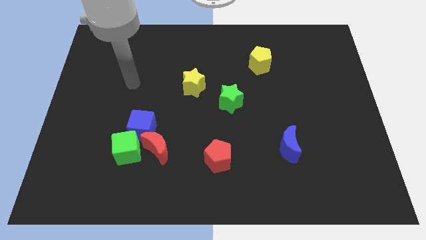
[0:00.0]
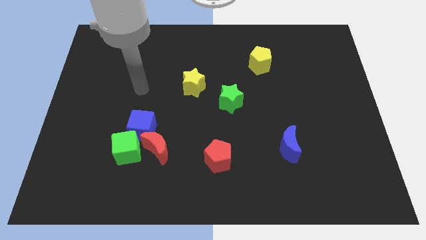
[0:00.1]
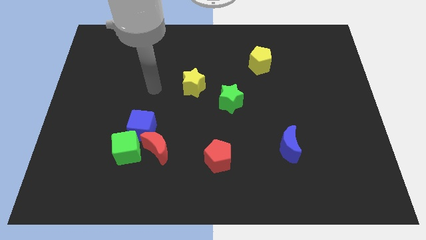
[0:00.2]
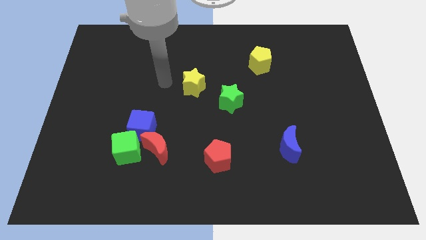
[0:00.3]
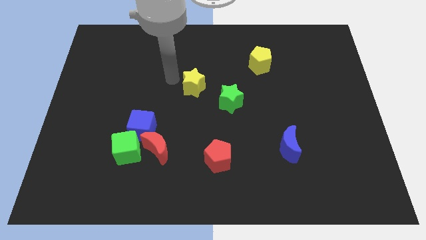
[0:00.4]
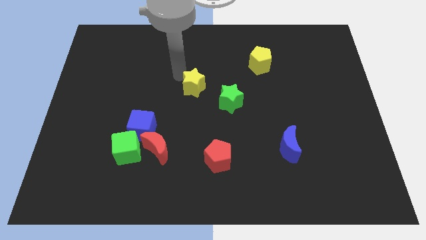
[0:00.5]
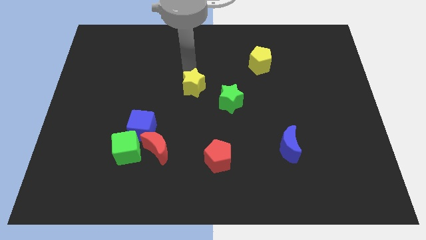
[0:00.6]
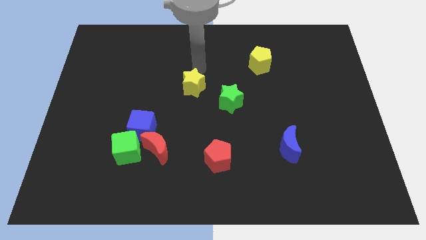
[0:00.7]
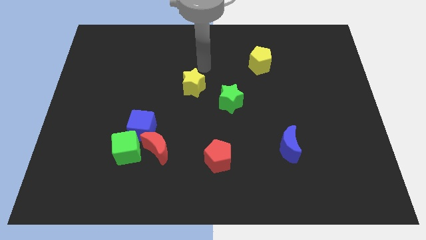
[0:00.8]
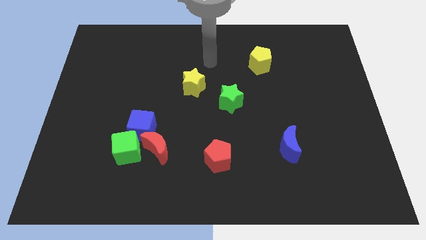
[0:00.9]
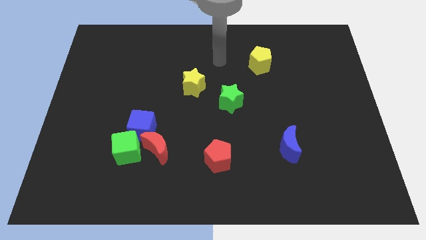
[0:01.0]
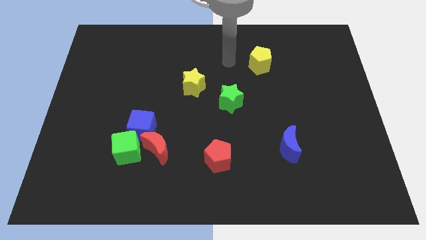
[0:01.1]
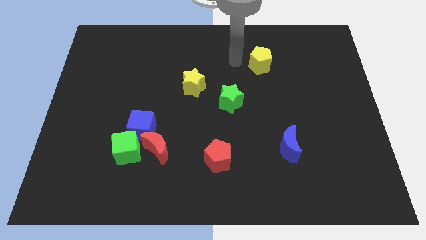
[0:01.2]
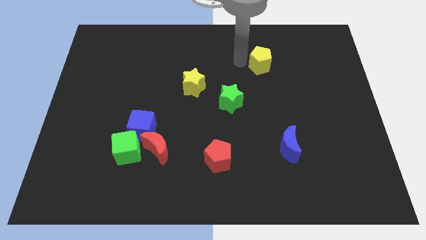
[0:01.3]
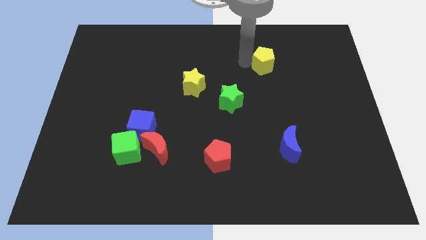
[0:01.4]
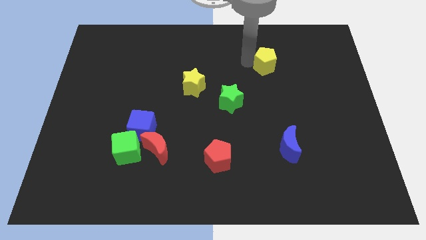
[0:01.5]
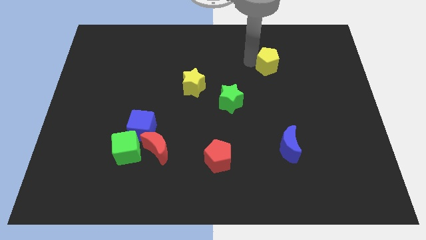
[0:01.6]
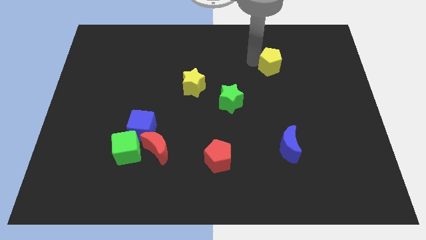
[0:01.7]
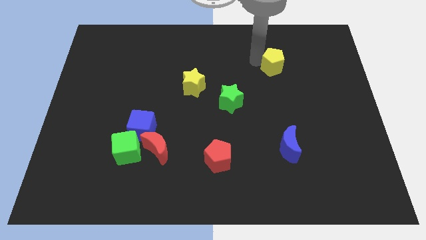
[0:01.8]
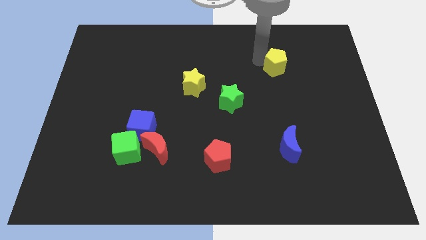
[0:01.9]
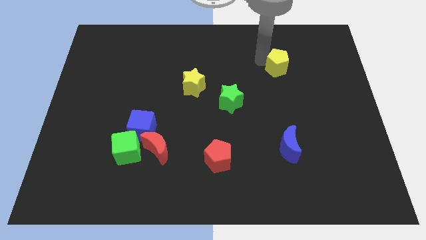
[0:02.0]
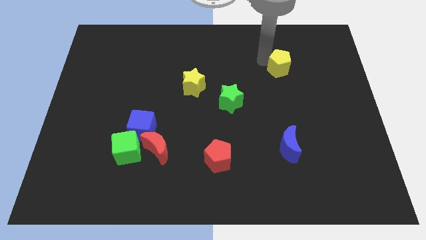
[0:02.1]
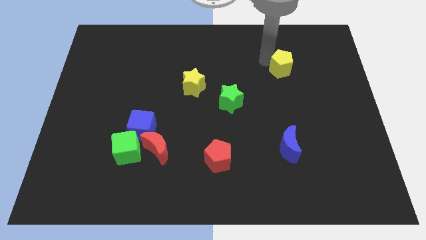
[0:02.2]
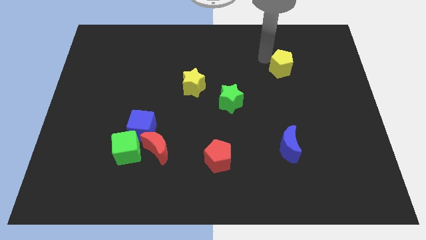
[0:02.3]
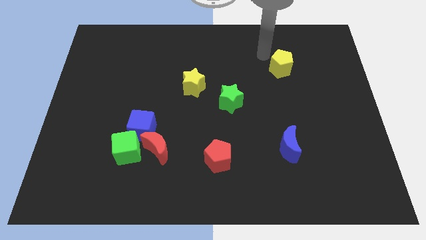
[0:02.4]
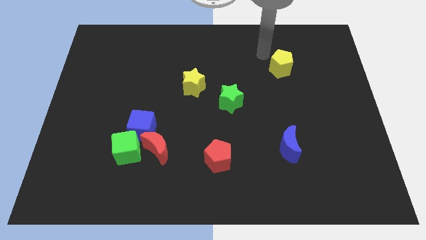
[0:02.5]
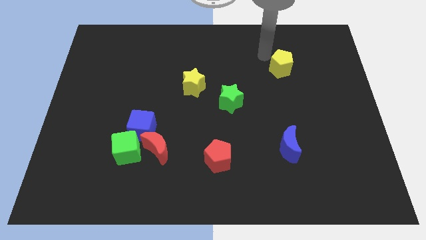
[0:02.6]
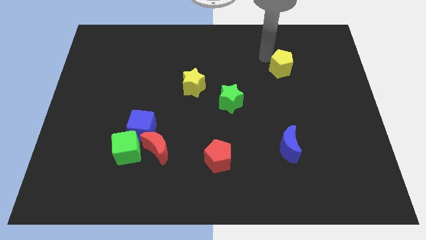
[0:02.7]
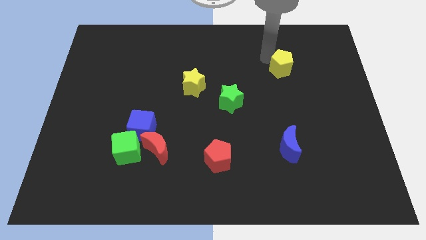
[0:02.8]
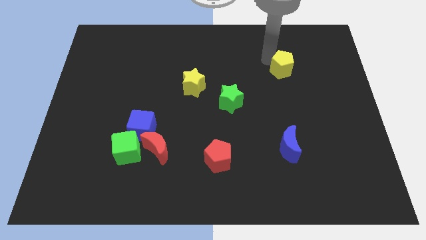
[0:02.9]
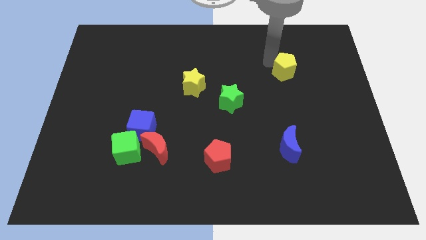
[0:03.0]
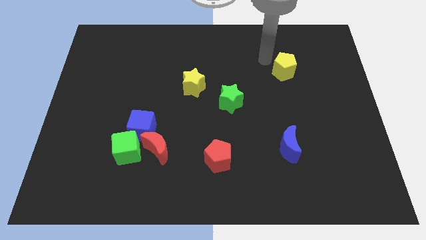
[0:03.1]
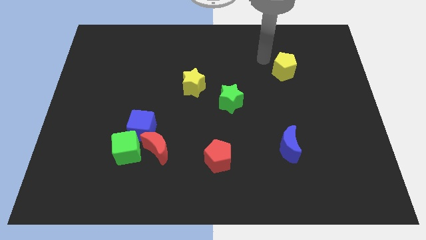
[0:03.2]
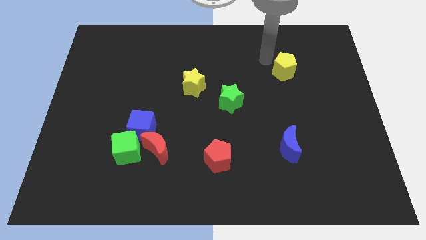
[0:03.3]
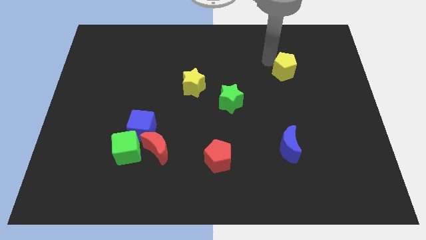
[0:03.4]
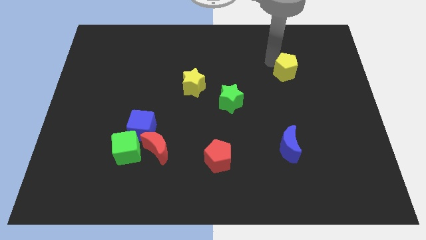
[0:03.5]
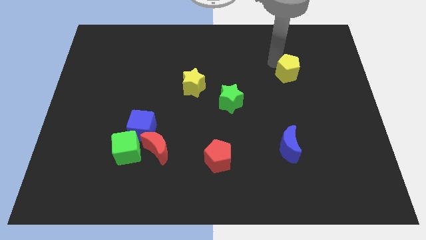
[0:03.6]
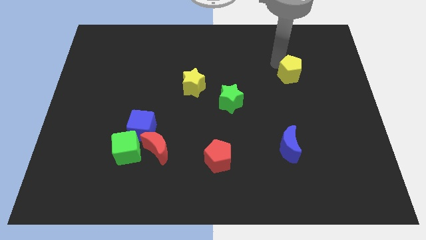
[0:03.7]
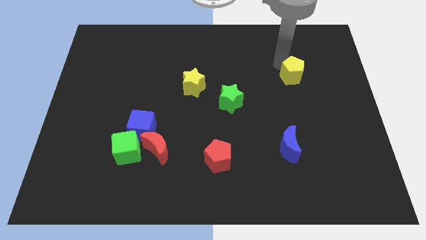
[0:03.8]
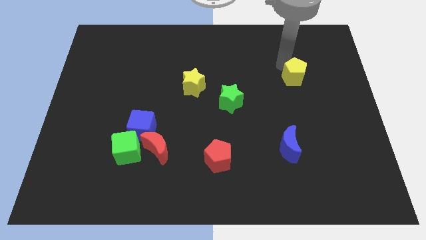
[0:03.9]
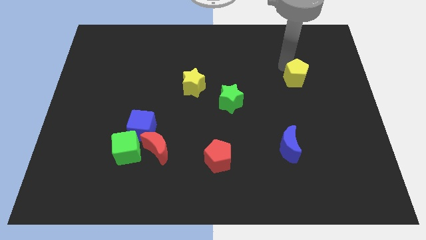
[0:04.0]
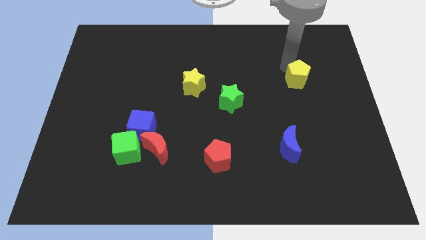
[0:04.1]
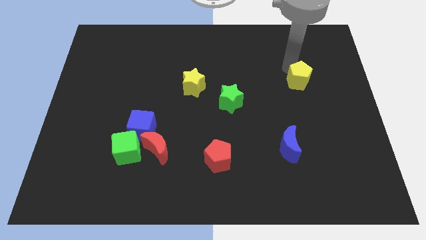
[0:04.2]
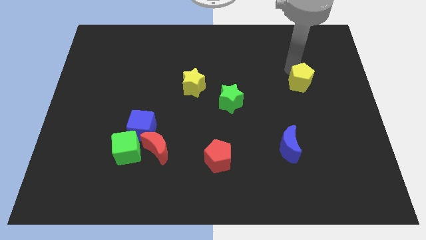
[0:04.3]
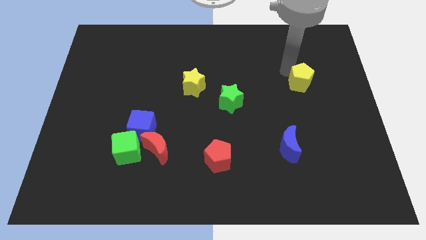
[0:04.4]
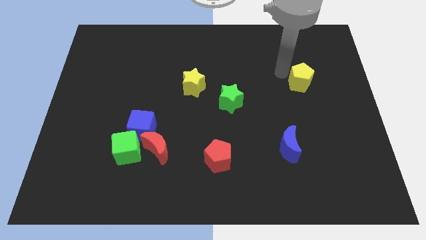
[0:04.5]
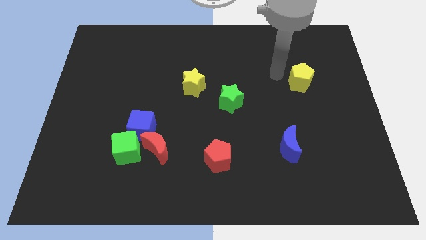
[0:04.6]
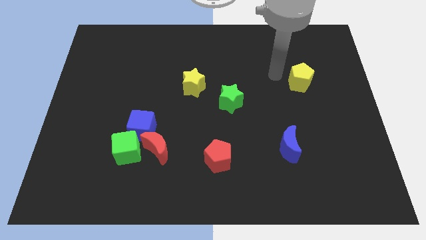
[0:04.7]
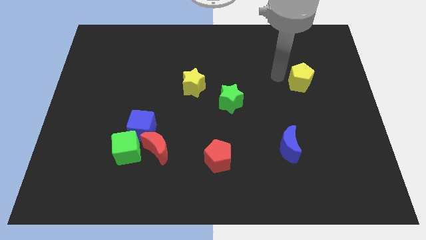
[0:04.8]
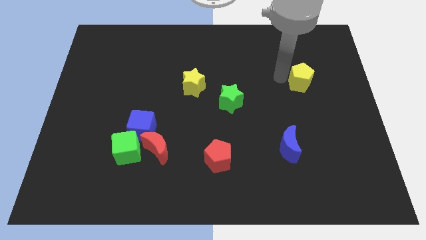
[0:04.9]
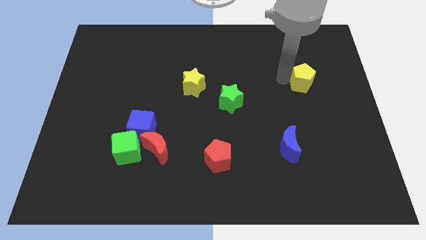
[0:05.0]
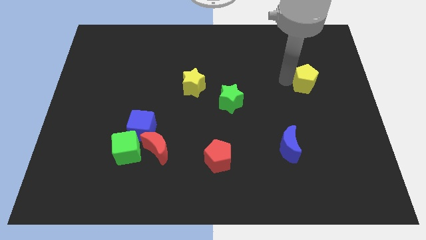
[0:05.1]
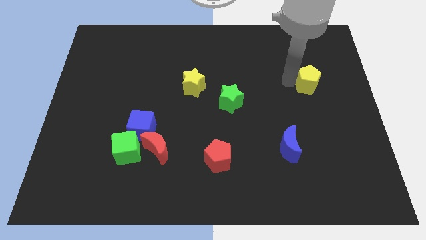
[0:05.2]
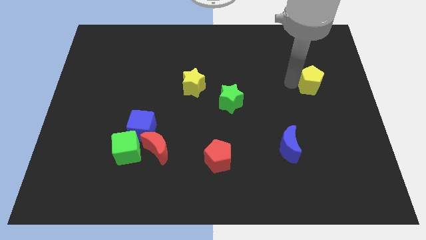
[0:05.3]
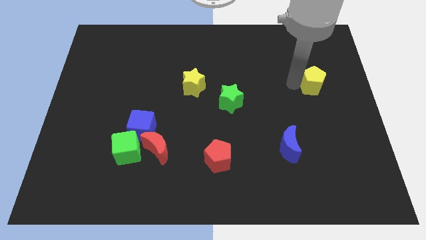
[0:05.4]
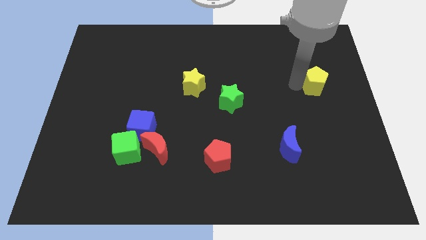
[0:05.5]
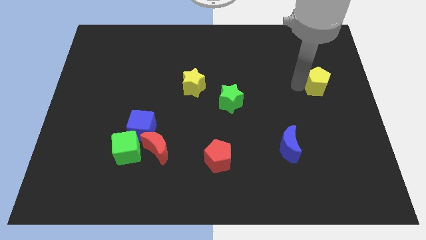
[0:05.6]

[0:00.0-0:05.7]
slide the yellow pentagon to the right side
